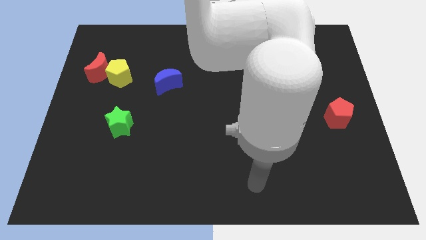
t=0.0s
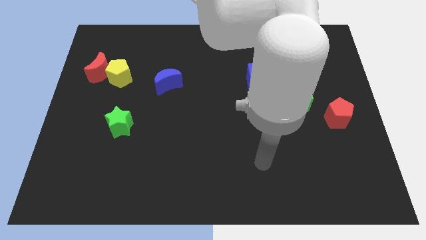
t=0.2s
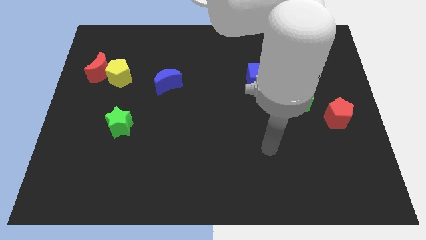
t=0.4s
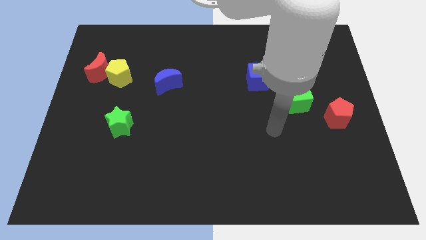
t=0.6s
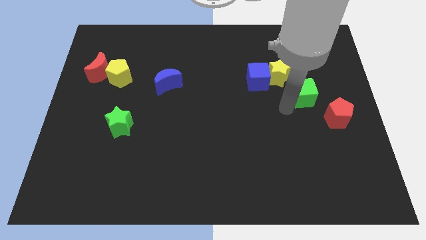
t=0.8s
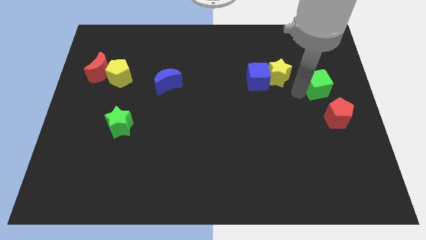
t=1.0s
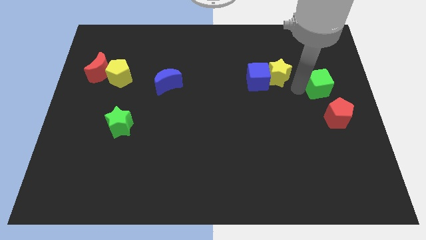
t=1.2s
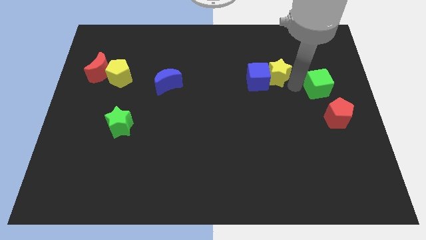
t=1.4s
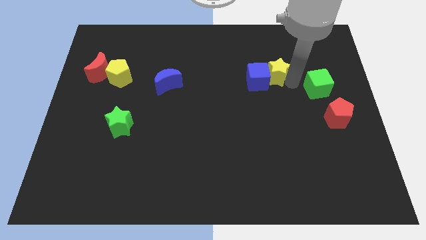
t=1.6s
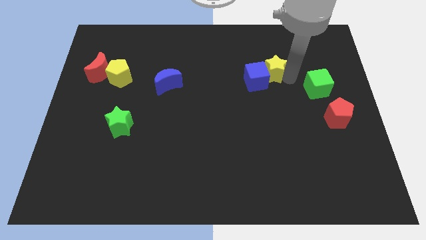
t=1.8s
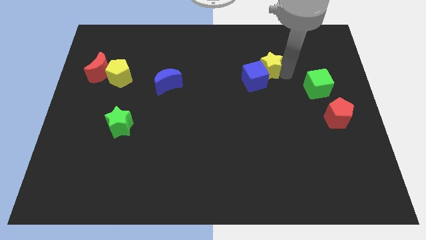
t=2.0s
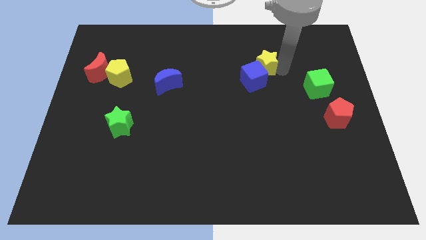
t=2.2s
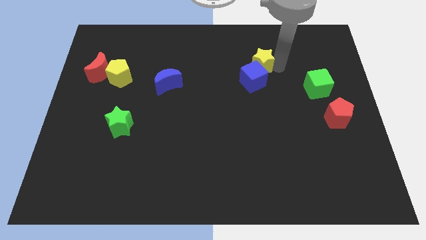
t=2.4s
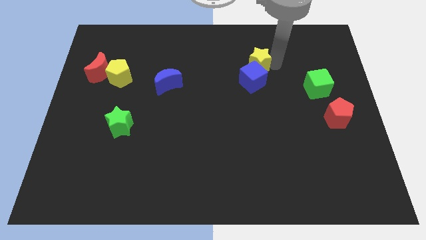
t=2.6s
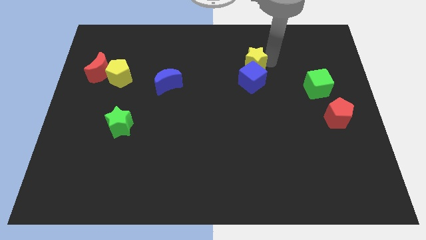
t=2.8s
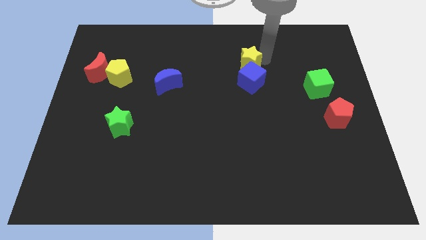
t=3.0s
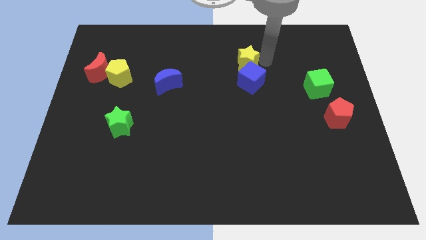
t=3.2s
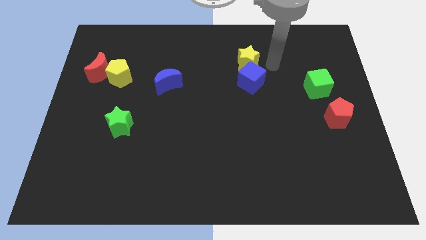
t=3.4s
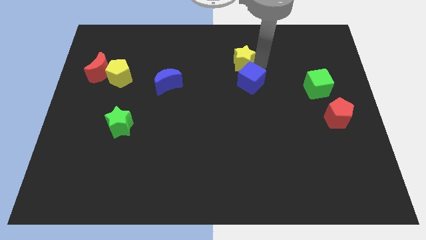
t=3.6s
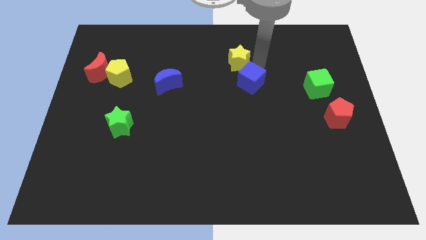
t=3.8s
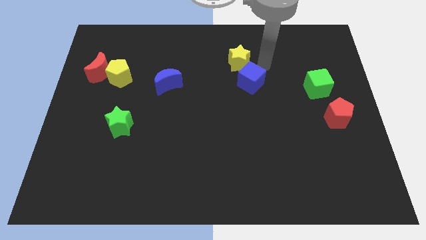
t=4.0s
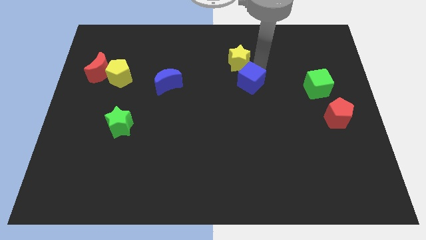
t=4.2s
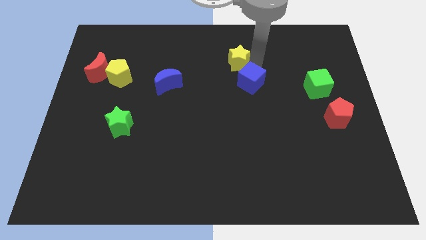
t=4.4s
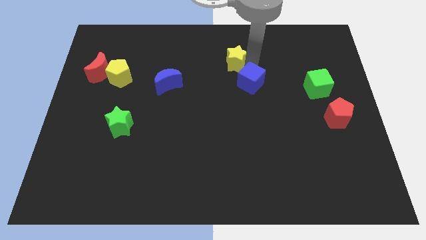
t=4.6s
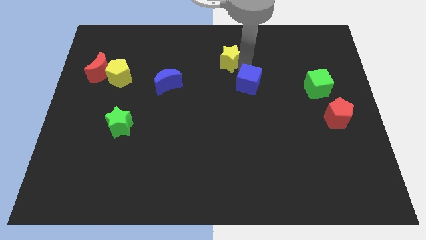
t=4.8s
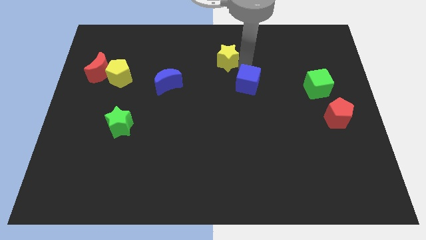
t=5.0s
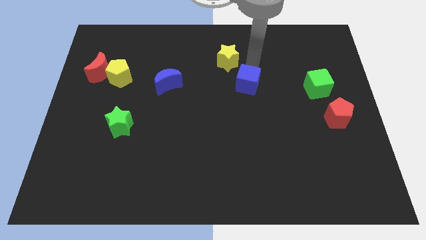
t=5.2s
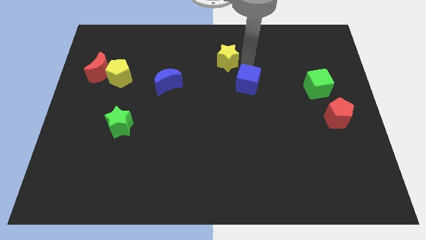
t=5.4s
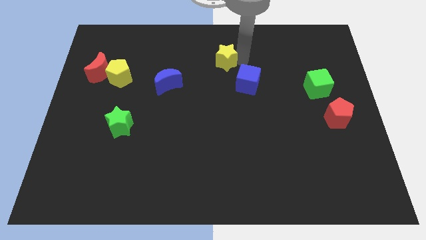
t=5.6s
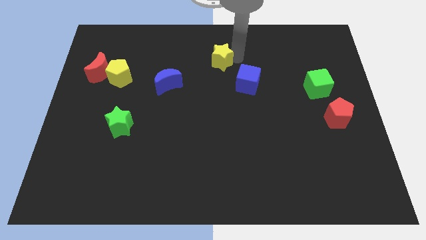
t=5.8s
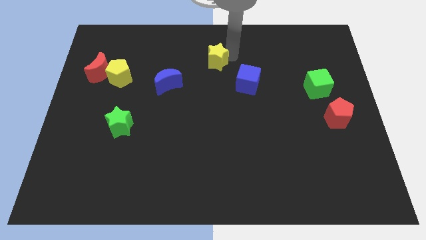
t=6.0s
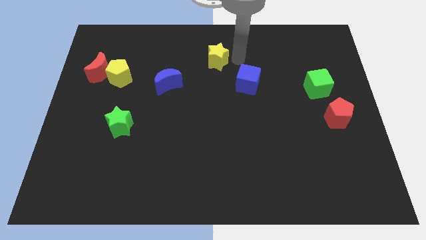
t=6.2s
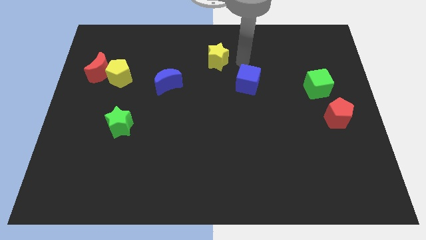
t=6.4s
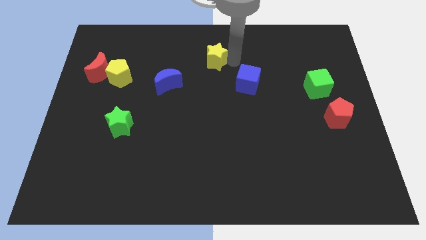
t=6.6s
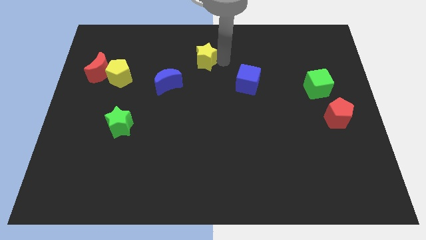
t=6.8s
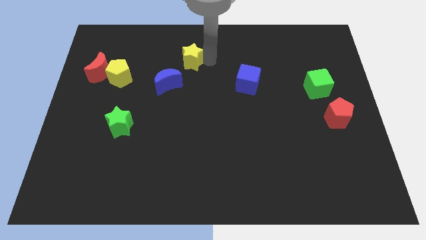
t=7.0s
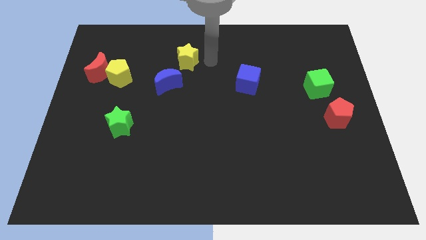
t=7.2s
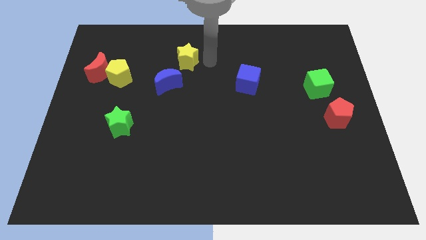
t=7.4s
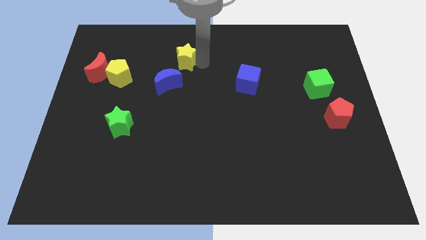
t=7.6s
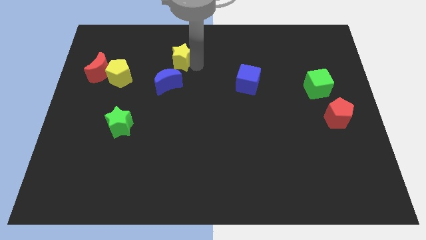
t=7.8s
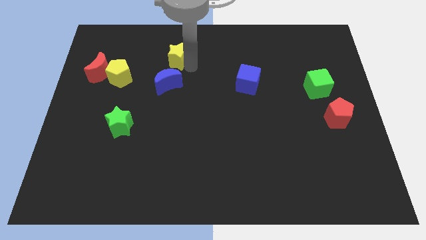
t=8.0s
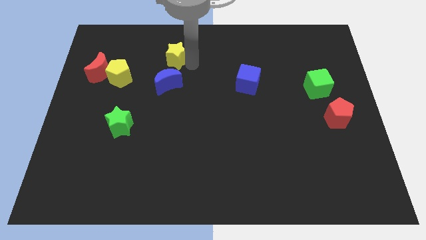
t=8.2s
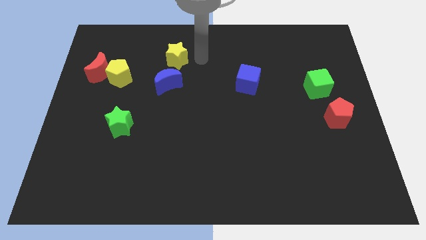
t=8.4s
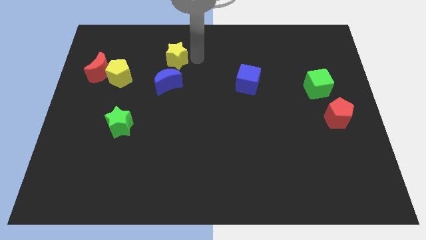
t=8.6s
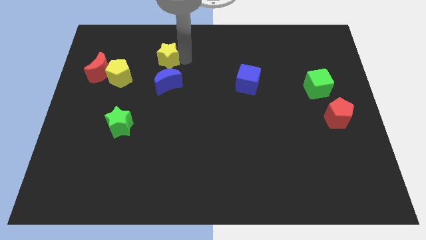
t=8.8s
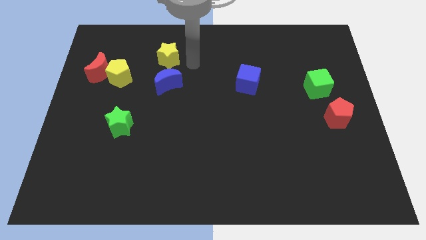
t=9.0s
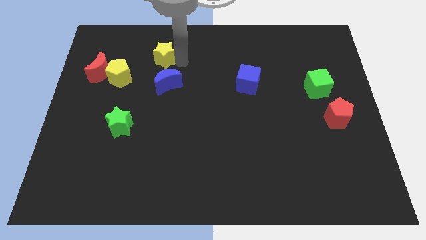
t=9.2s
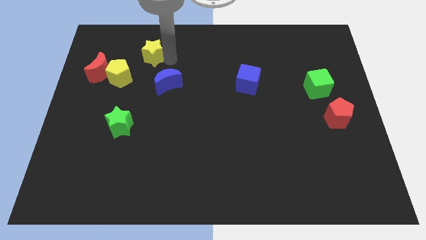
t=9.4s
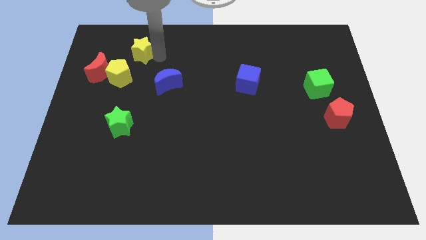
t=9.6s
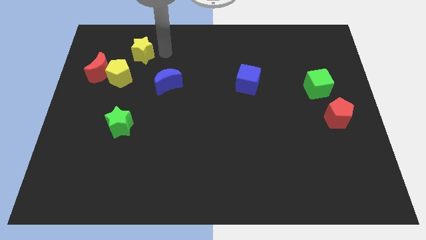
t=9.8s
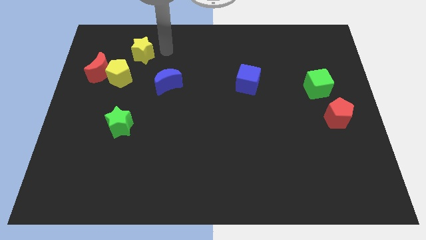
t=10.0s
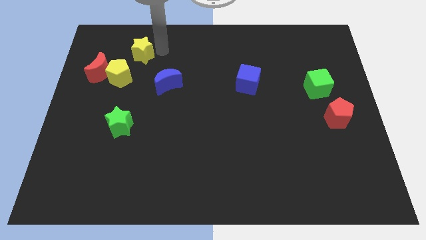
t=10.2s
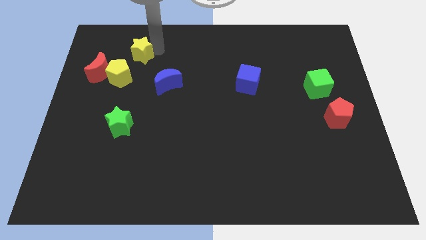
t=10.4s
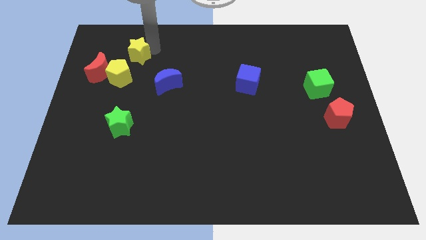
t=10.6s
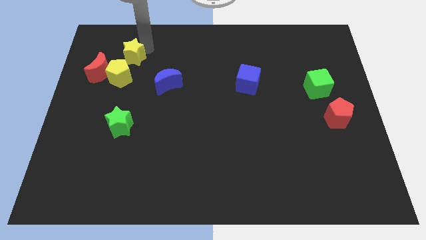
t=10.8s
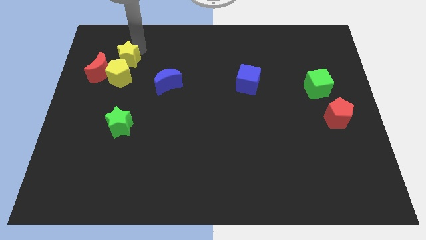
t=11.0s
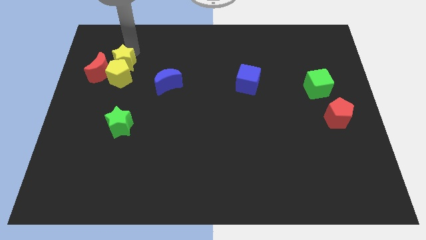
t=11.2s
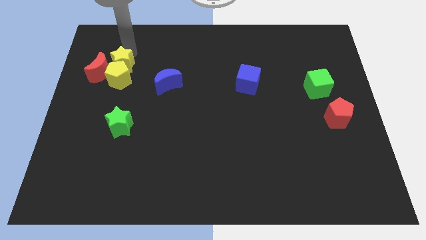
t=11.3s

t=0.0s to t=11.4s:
push the yellow star close to the red moon

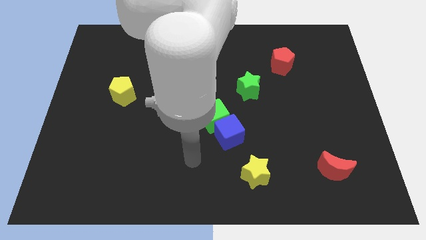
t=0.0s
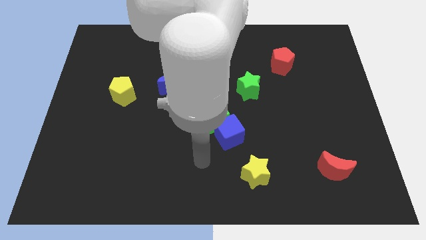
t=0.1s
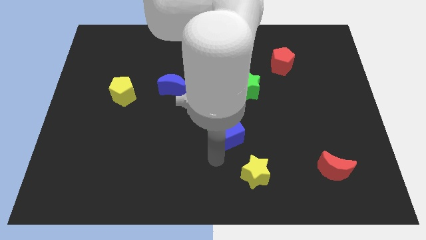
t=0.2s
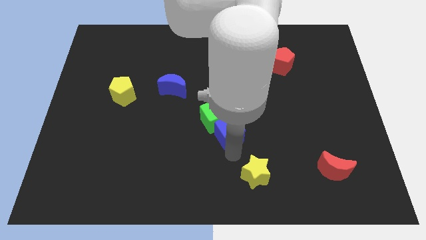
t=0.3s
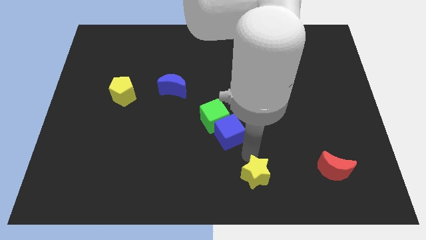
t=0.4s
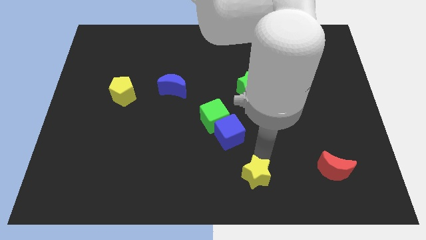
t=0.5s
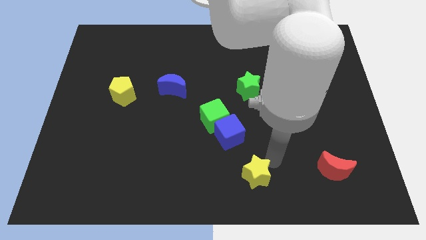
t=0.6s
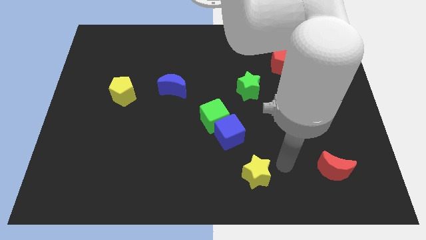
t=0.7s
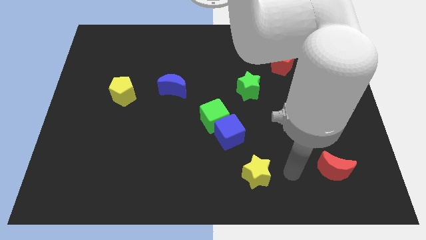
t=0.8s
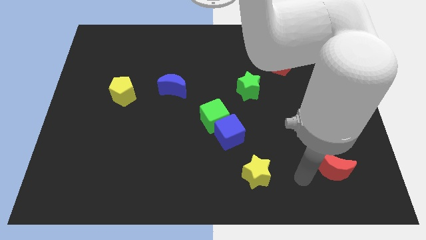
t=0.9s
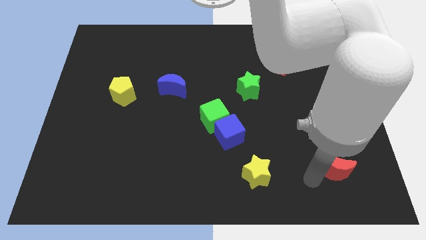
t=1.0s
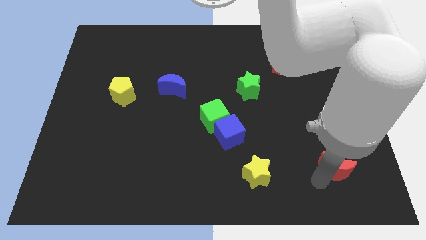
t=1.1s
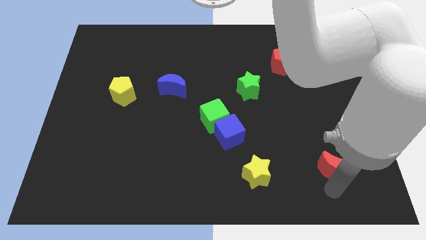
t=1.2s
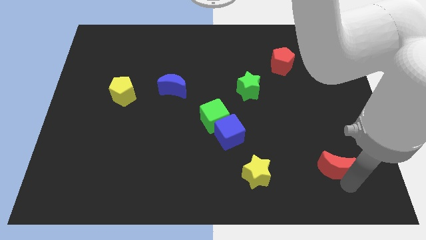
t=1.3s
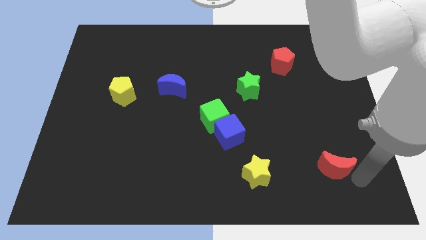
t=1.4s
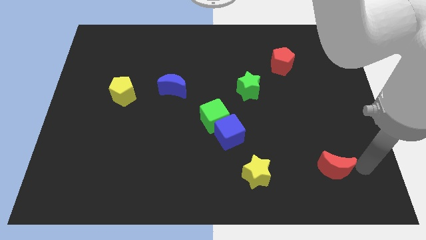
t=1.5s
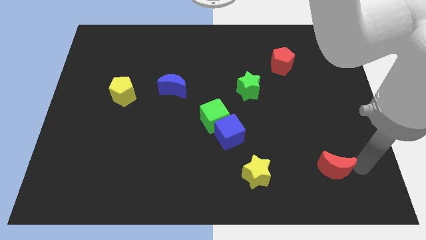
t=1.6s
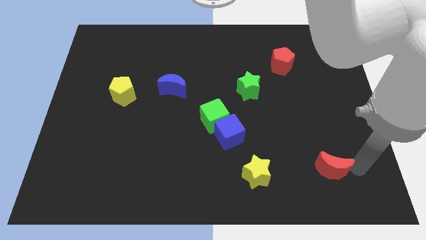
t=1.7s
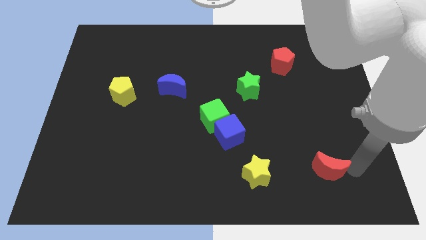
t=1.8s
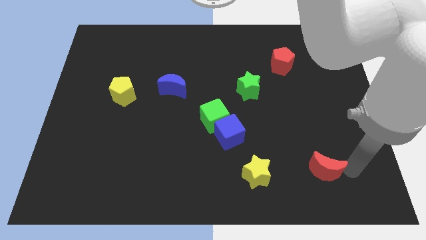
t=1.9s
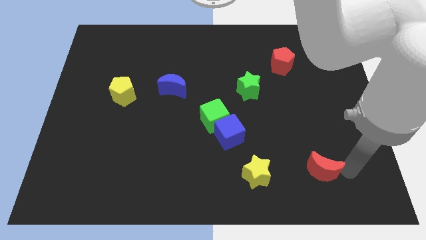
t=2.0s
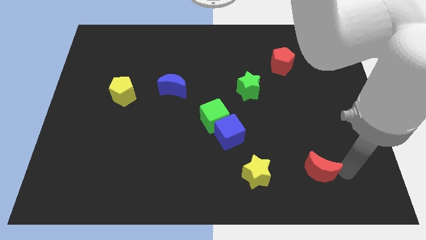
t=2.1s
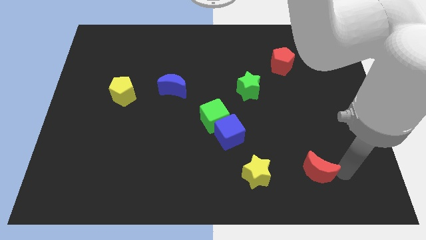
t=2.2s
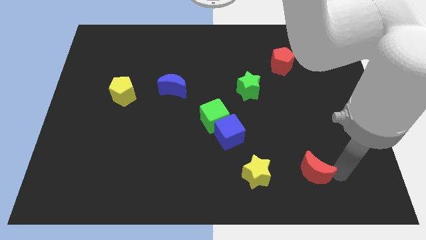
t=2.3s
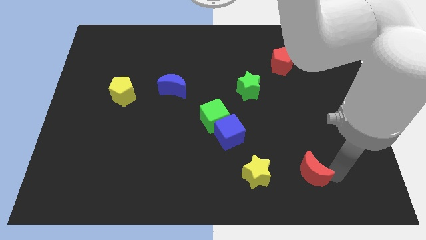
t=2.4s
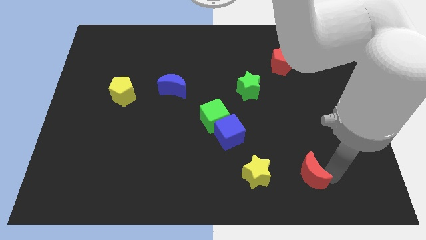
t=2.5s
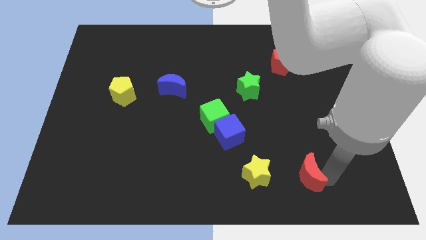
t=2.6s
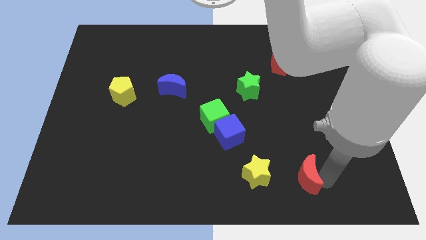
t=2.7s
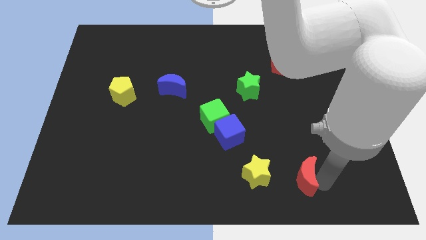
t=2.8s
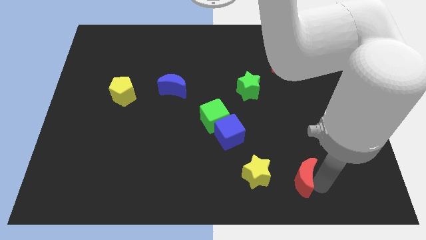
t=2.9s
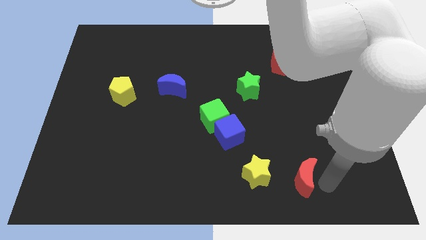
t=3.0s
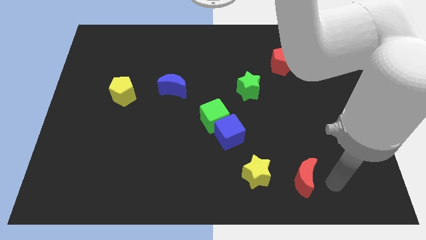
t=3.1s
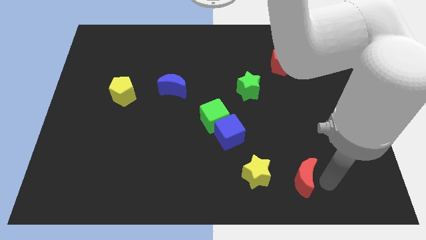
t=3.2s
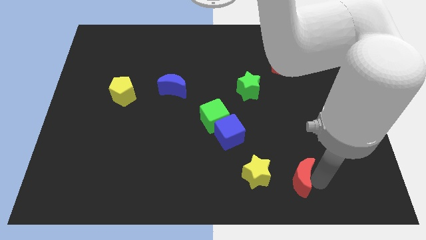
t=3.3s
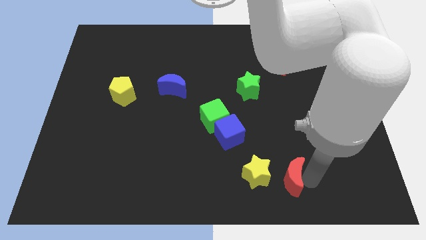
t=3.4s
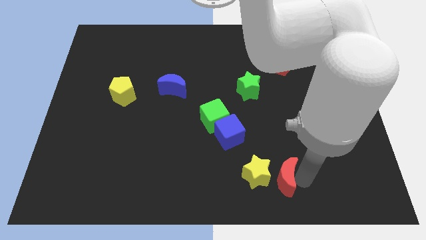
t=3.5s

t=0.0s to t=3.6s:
push the red moon towards the yellow star
